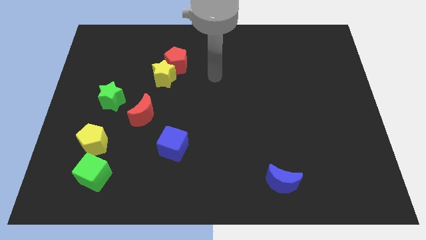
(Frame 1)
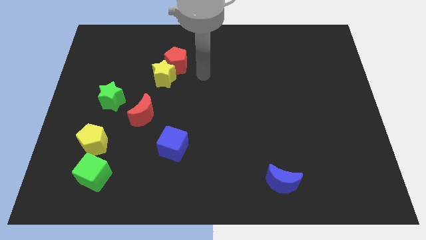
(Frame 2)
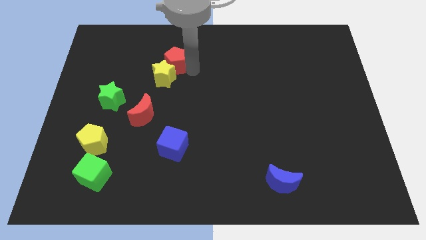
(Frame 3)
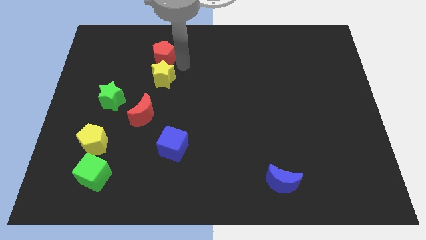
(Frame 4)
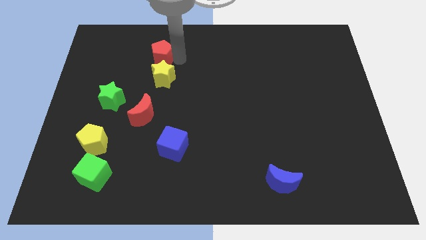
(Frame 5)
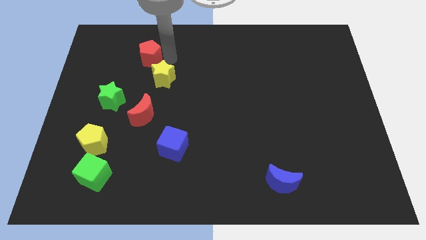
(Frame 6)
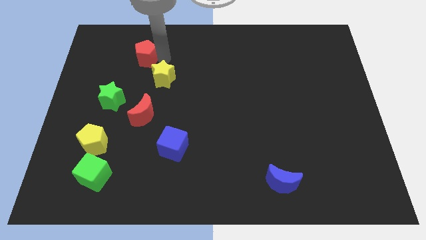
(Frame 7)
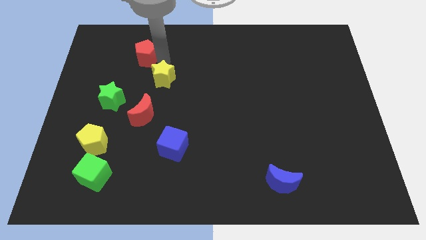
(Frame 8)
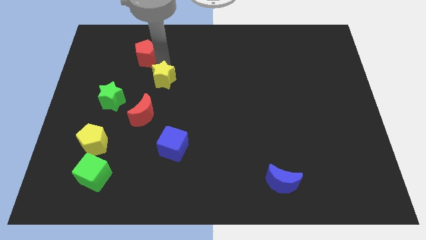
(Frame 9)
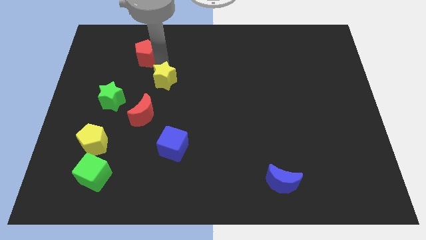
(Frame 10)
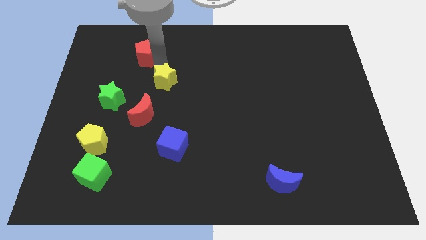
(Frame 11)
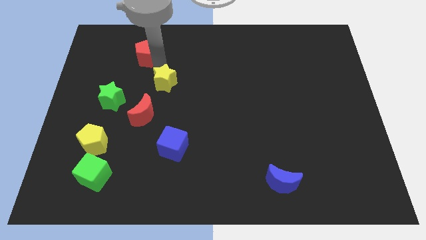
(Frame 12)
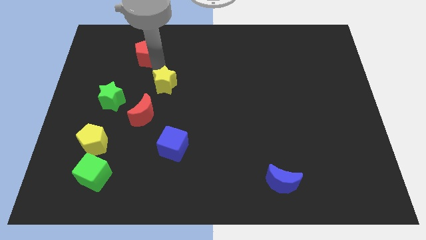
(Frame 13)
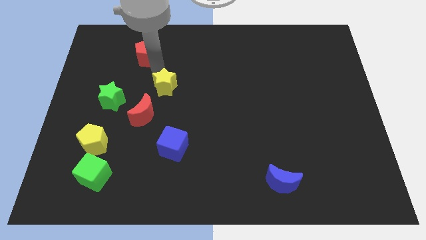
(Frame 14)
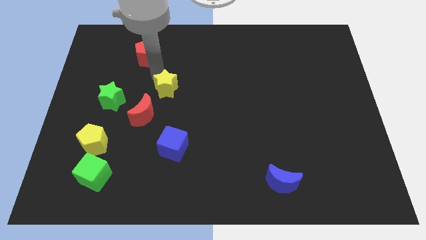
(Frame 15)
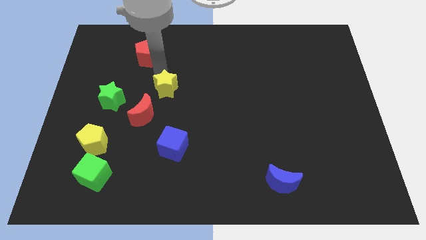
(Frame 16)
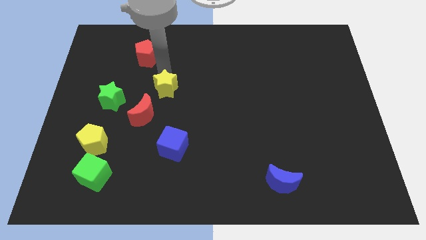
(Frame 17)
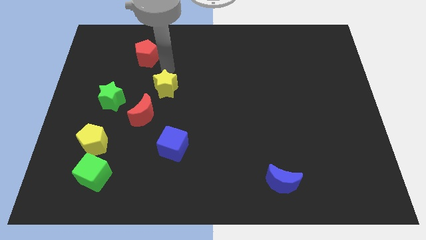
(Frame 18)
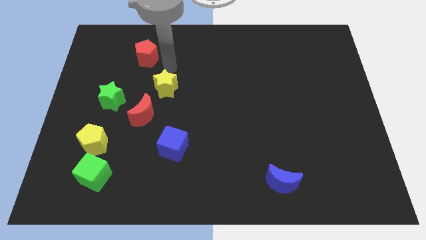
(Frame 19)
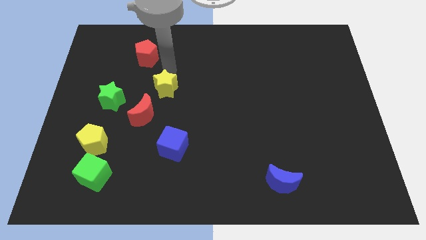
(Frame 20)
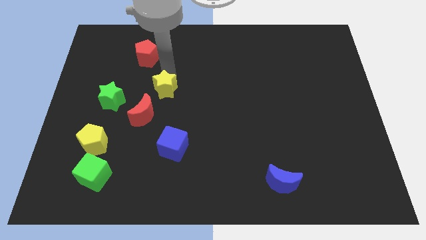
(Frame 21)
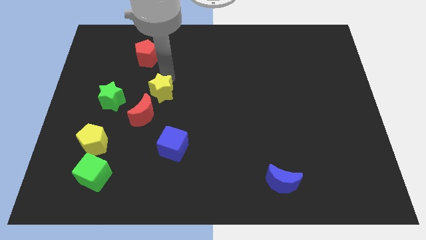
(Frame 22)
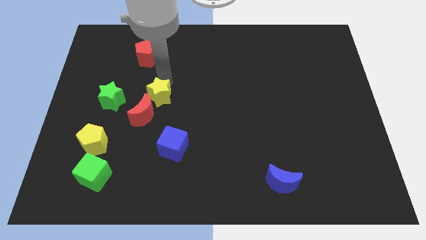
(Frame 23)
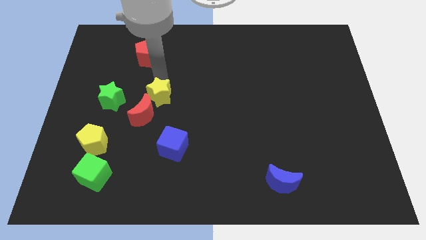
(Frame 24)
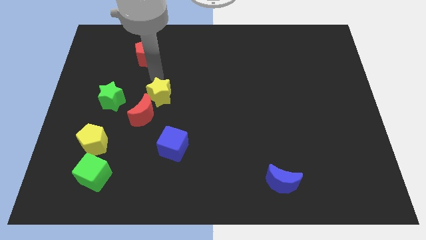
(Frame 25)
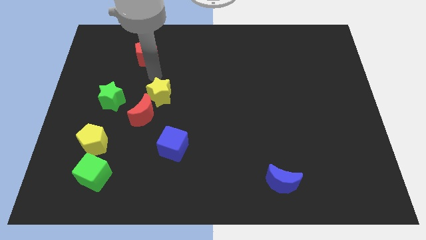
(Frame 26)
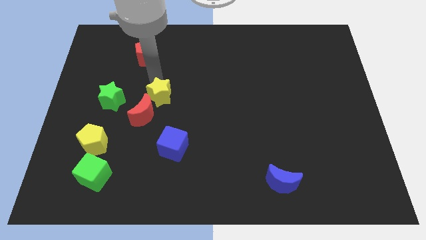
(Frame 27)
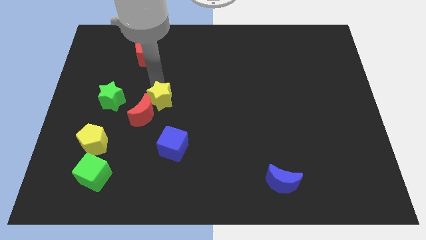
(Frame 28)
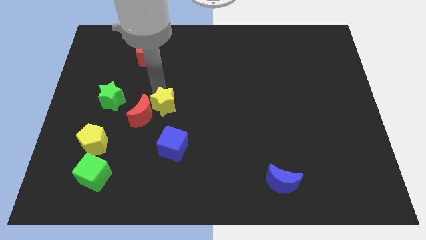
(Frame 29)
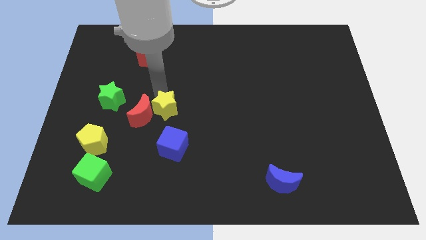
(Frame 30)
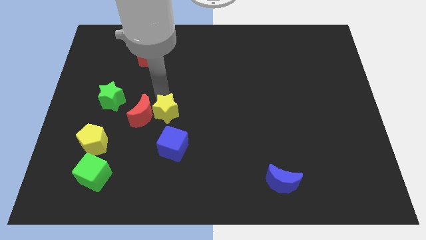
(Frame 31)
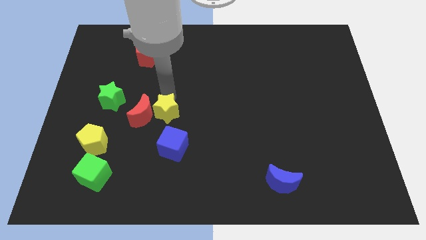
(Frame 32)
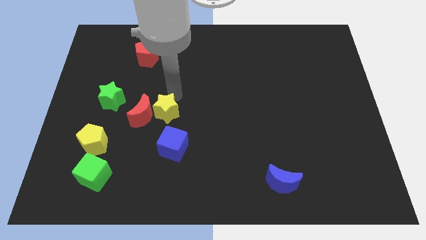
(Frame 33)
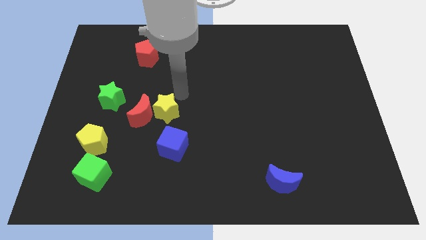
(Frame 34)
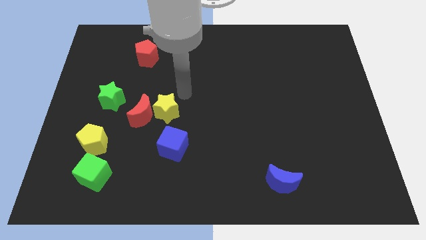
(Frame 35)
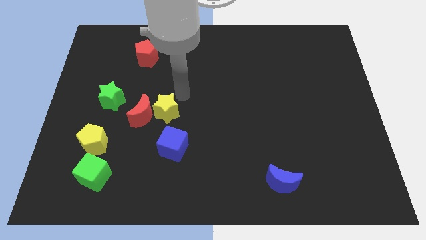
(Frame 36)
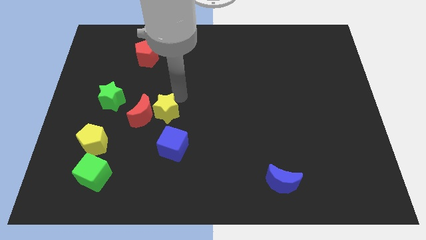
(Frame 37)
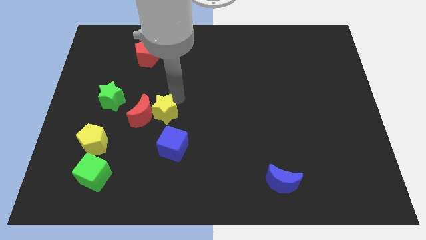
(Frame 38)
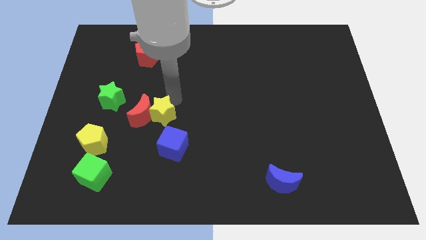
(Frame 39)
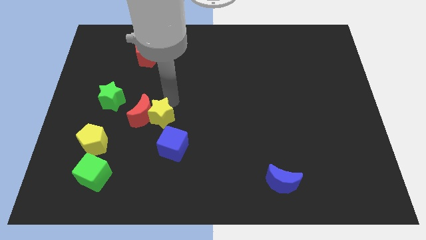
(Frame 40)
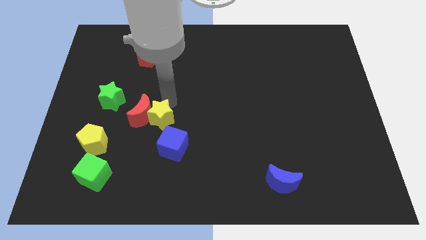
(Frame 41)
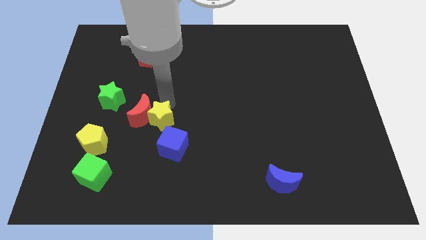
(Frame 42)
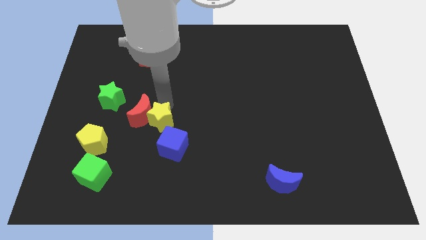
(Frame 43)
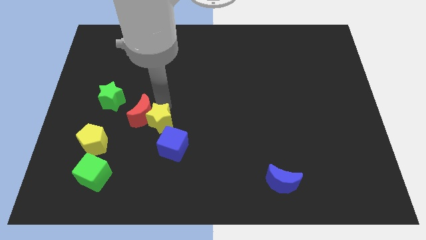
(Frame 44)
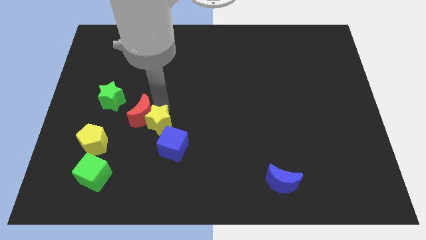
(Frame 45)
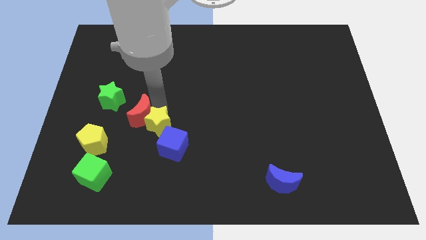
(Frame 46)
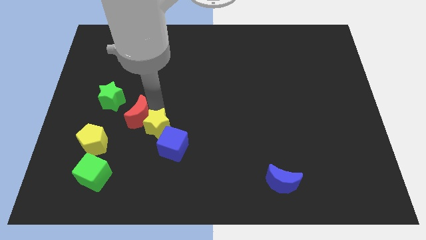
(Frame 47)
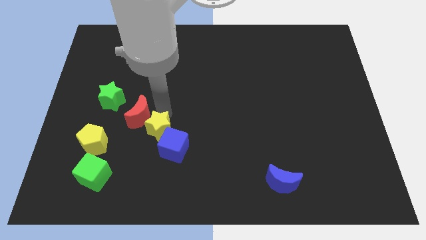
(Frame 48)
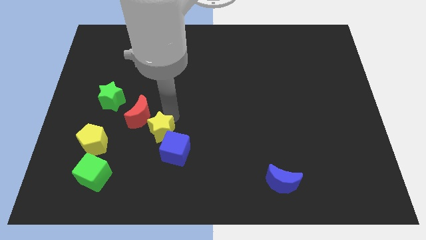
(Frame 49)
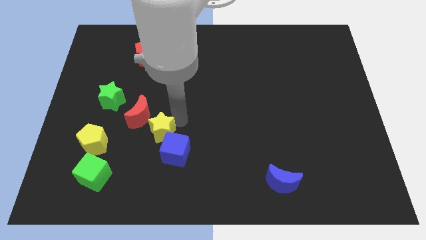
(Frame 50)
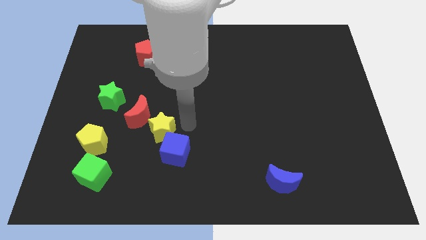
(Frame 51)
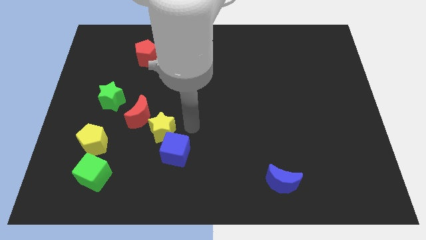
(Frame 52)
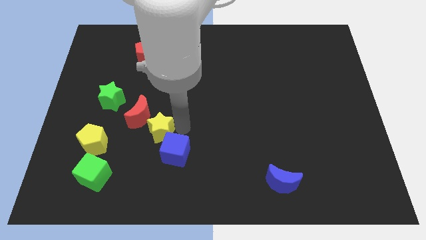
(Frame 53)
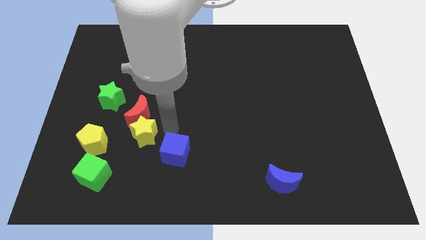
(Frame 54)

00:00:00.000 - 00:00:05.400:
push the yellow star diagonally down and to the left of the red moon
